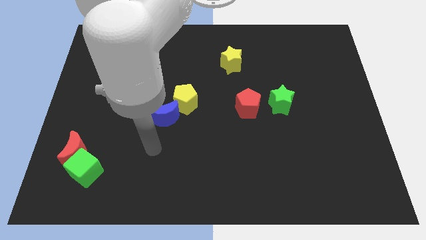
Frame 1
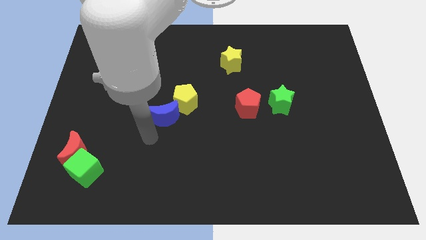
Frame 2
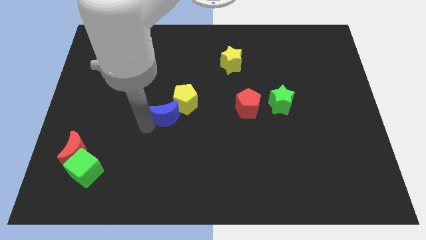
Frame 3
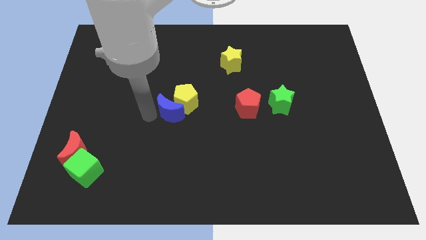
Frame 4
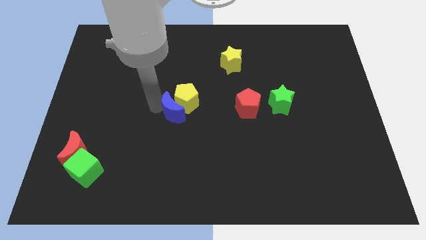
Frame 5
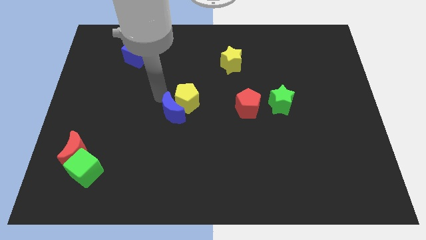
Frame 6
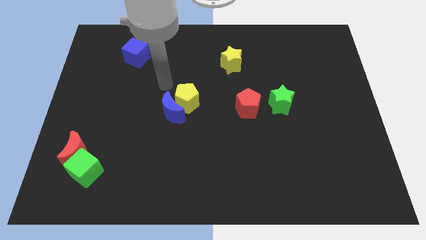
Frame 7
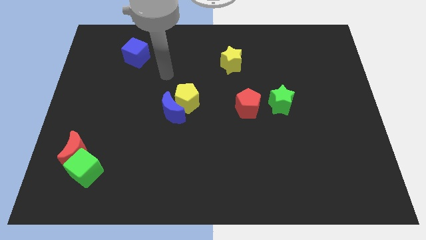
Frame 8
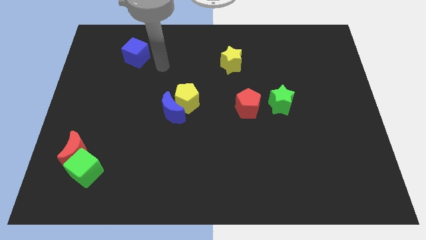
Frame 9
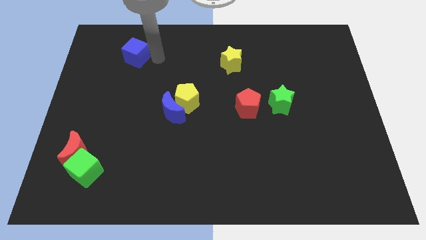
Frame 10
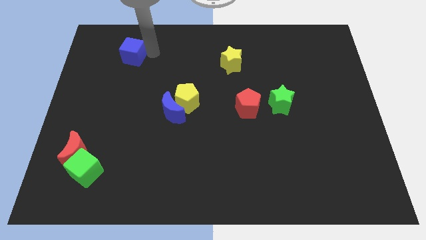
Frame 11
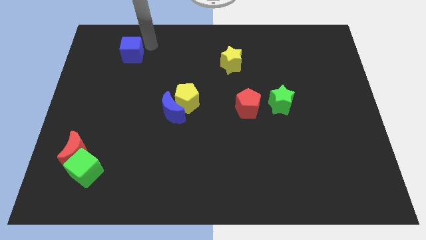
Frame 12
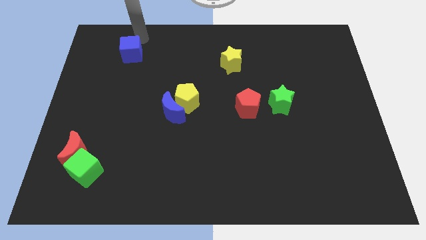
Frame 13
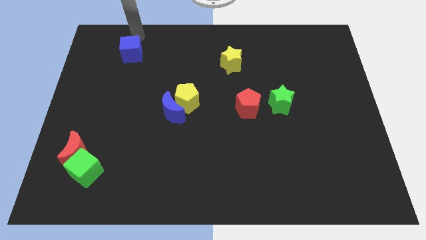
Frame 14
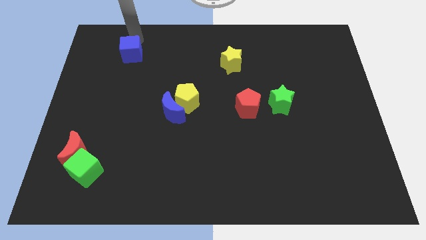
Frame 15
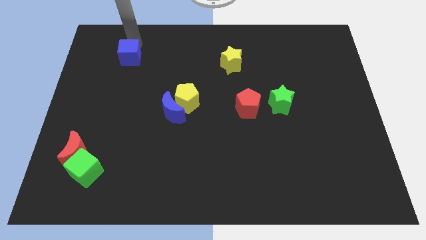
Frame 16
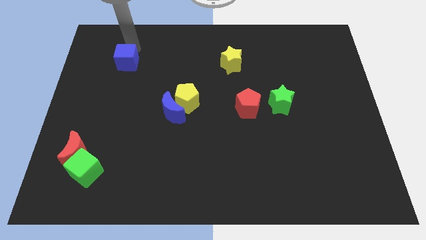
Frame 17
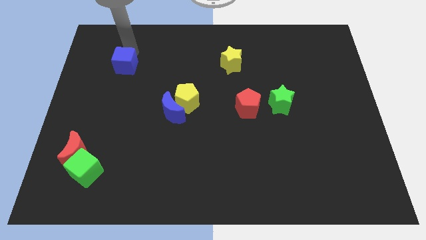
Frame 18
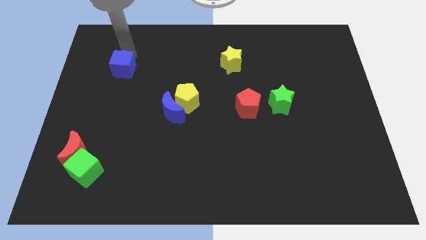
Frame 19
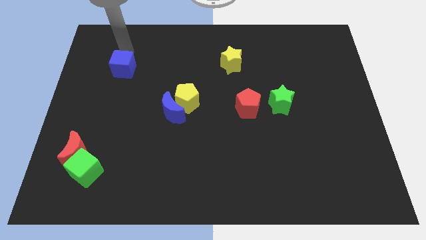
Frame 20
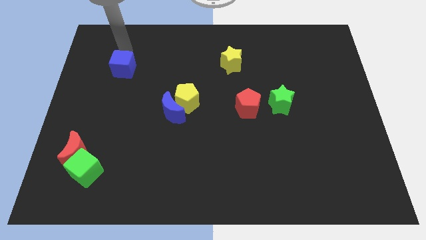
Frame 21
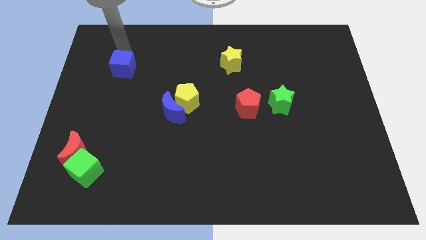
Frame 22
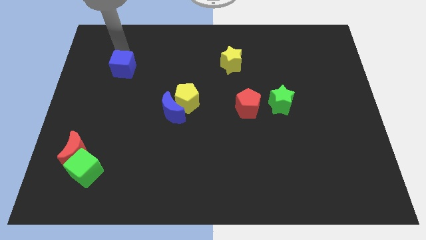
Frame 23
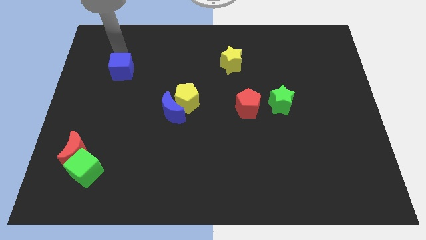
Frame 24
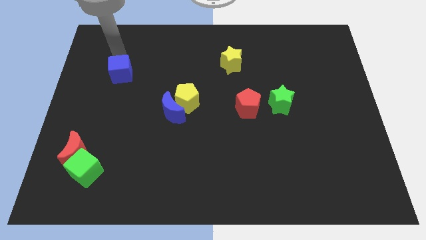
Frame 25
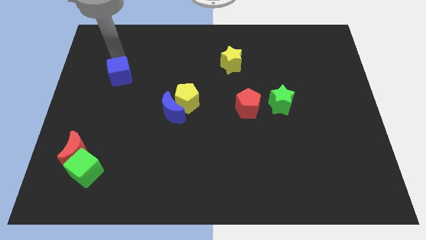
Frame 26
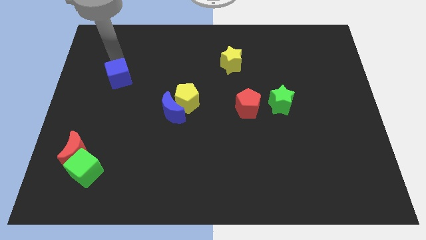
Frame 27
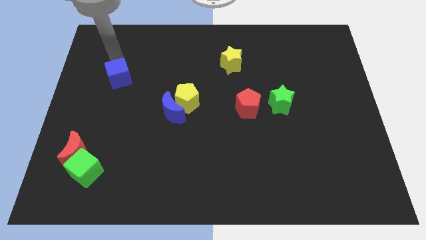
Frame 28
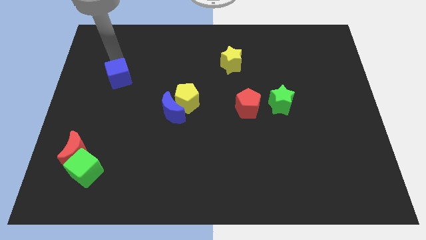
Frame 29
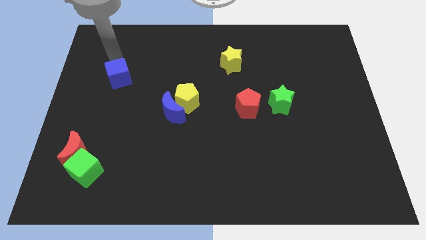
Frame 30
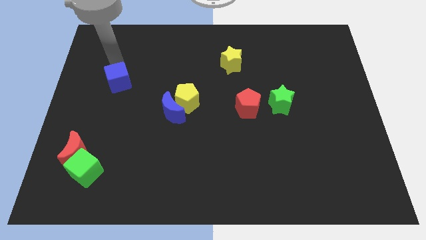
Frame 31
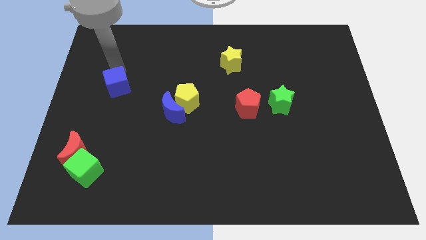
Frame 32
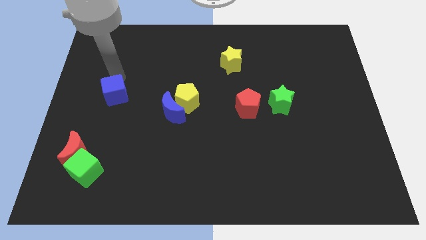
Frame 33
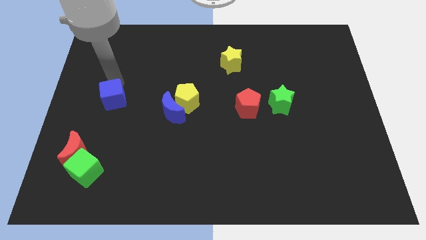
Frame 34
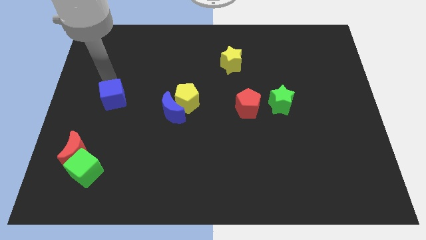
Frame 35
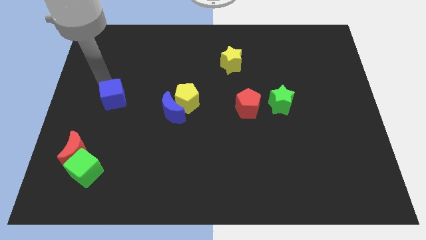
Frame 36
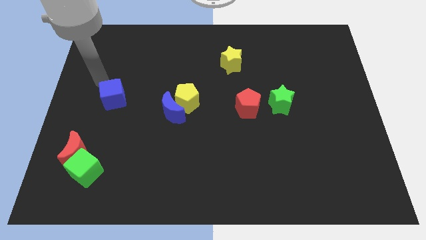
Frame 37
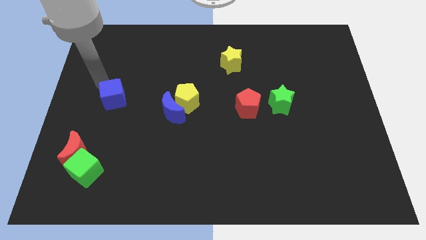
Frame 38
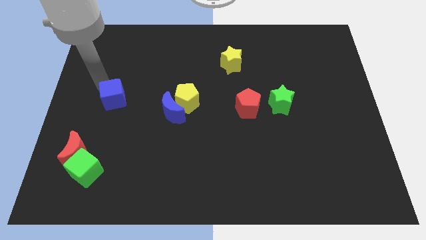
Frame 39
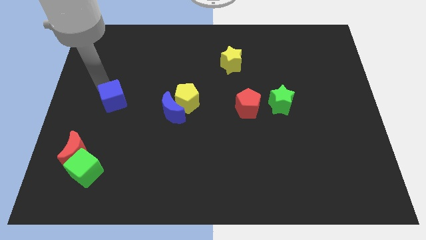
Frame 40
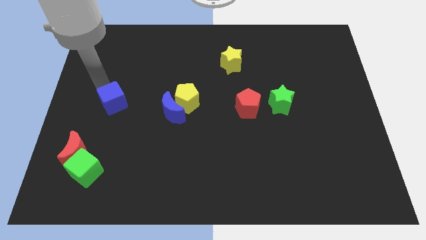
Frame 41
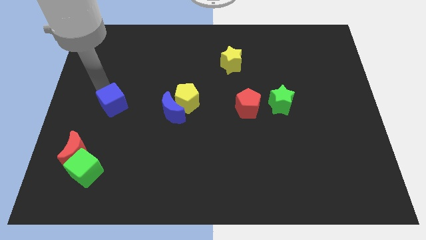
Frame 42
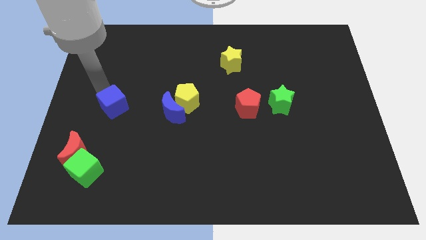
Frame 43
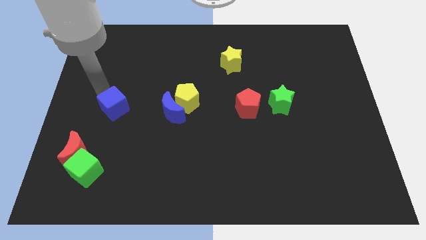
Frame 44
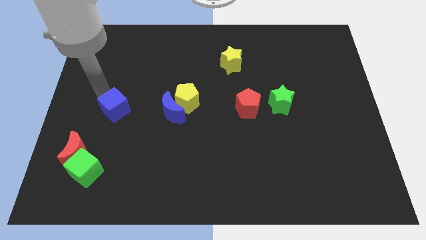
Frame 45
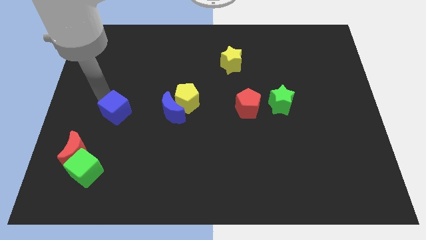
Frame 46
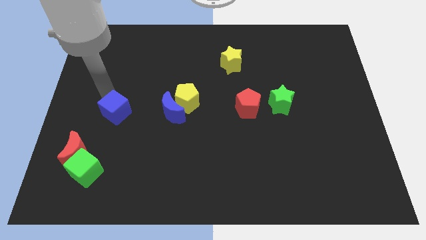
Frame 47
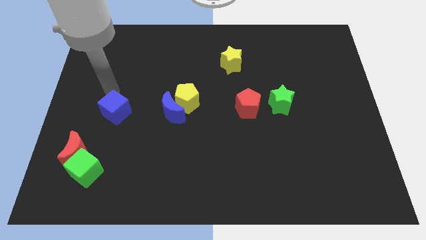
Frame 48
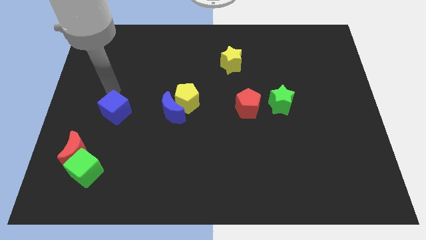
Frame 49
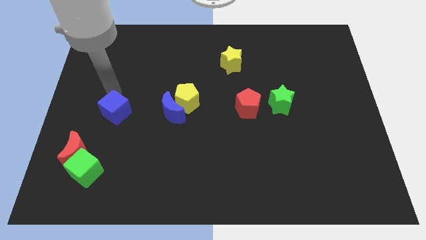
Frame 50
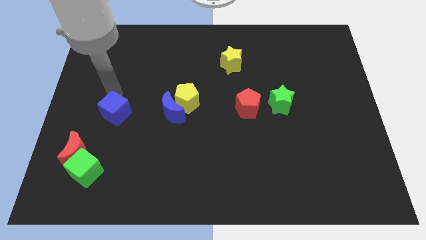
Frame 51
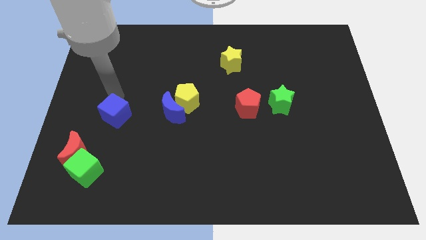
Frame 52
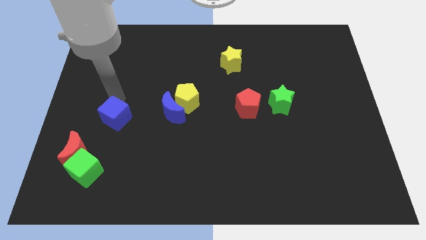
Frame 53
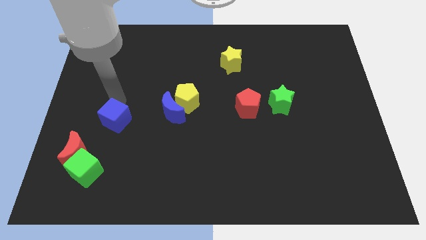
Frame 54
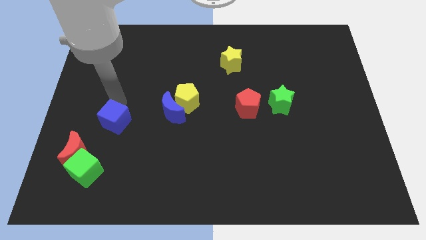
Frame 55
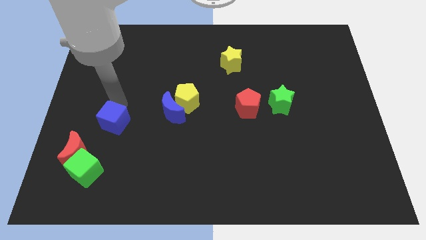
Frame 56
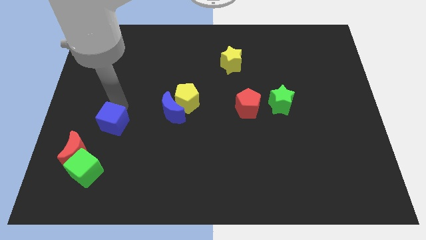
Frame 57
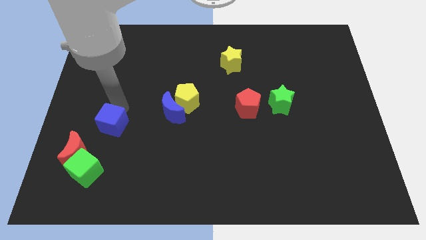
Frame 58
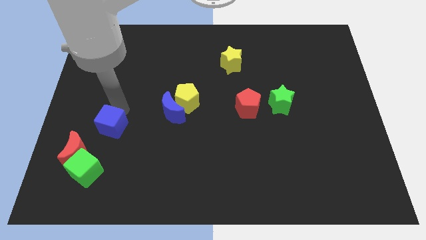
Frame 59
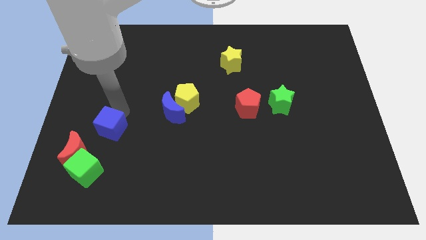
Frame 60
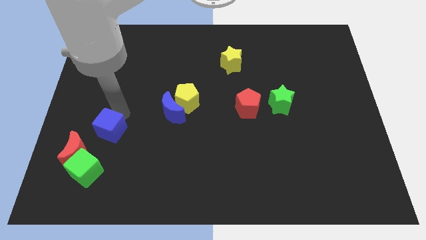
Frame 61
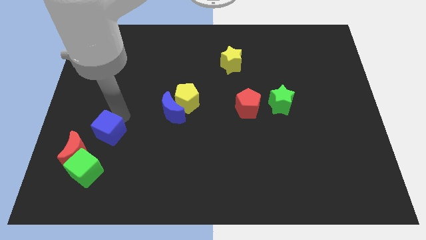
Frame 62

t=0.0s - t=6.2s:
push the blue cube to the top right of the green cube
